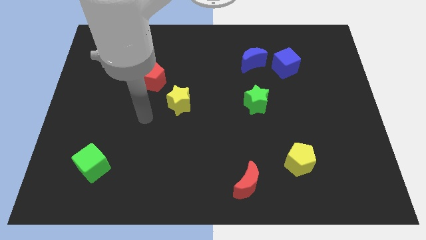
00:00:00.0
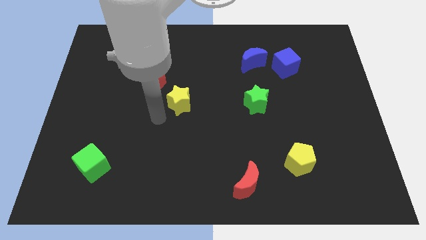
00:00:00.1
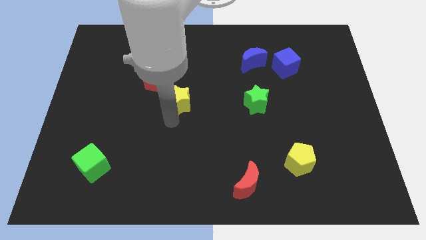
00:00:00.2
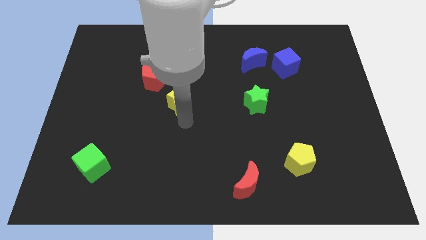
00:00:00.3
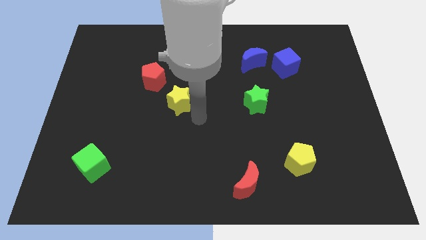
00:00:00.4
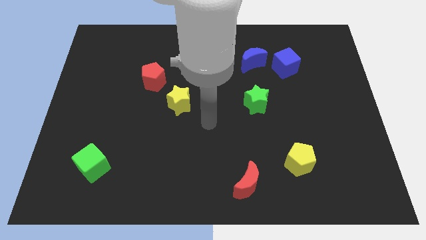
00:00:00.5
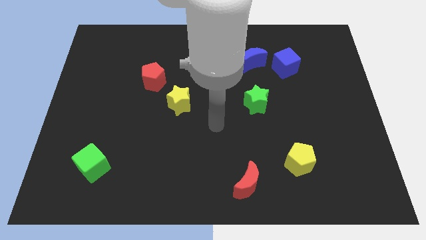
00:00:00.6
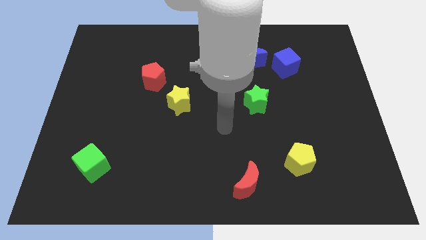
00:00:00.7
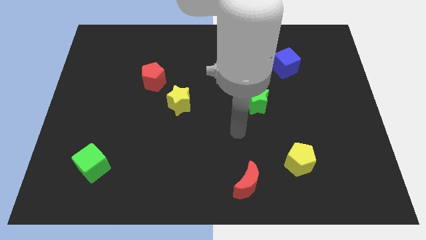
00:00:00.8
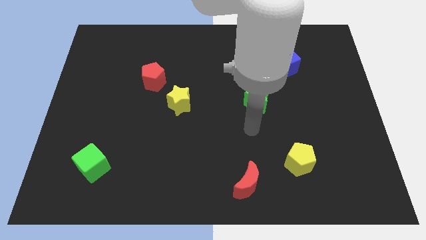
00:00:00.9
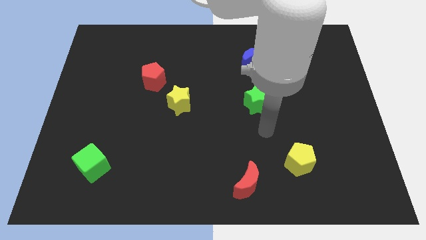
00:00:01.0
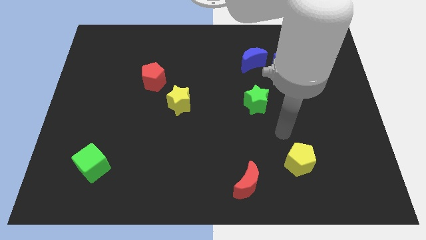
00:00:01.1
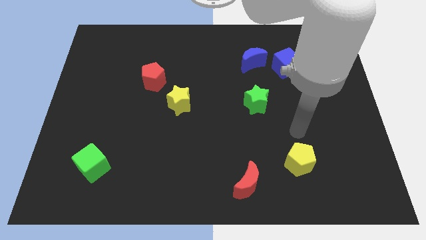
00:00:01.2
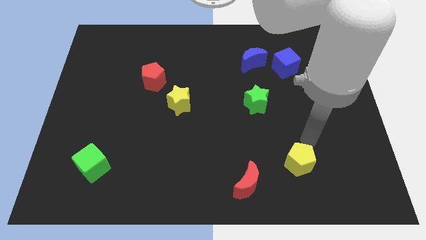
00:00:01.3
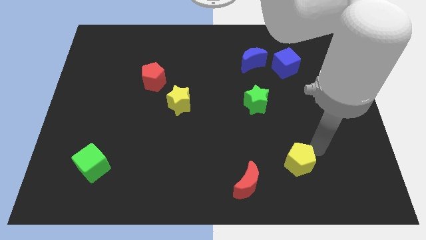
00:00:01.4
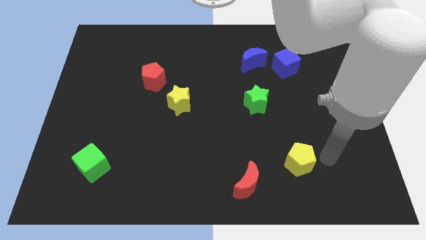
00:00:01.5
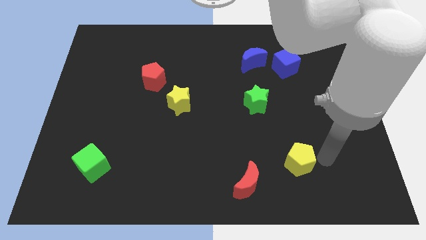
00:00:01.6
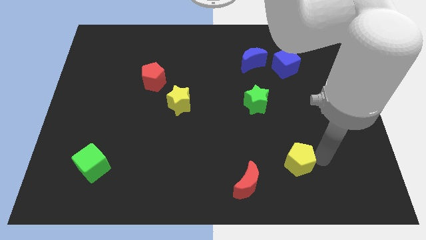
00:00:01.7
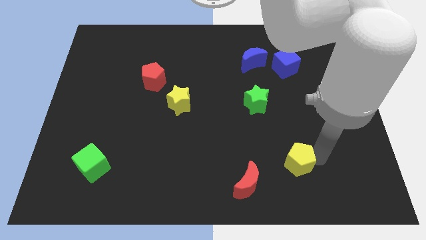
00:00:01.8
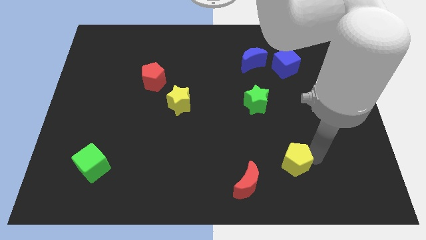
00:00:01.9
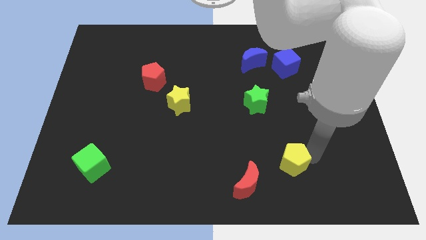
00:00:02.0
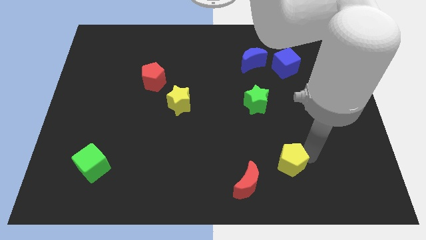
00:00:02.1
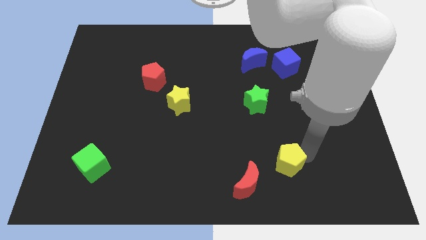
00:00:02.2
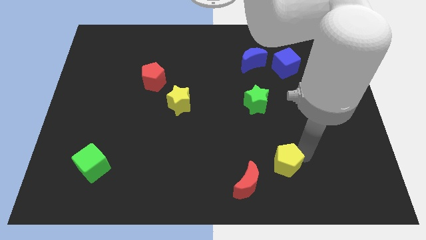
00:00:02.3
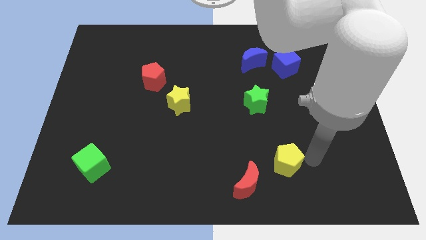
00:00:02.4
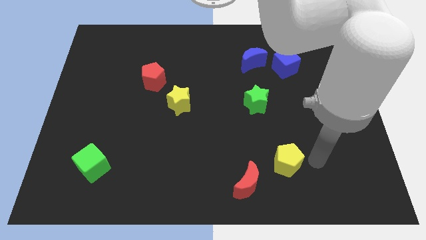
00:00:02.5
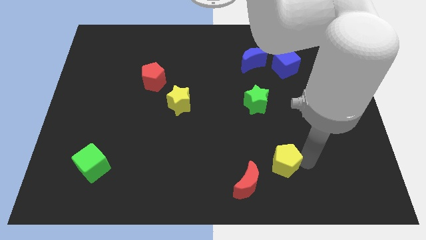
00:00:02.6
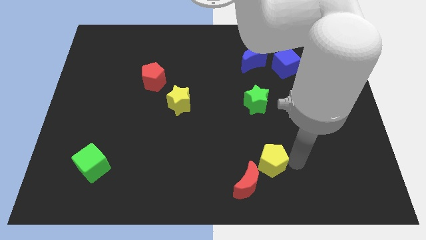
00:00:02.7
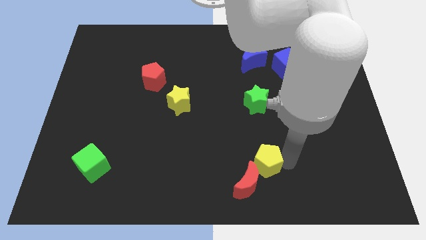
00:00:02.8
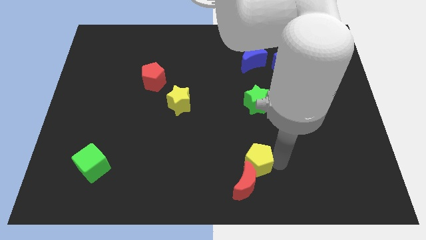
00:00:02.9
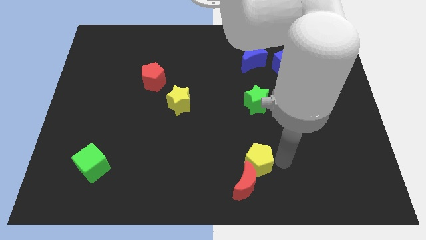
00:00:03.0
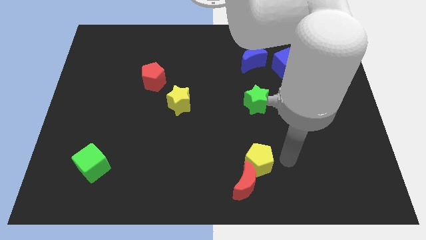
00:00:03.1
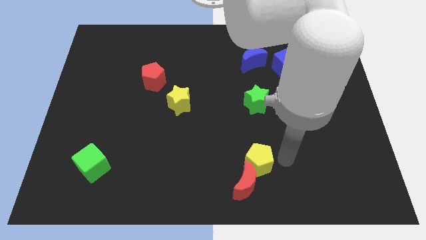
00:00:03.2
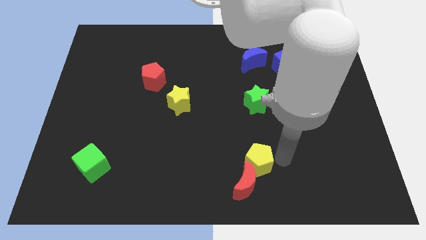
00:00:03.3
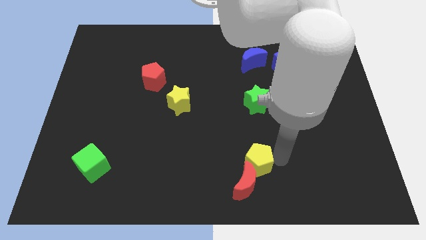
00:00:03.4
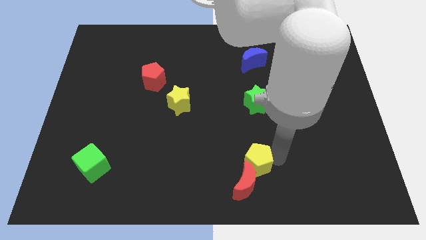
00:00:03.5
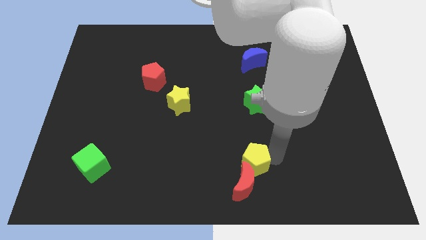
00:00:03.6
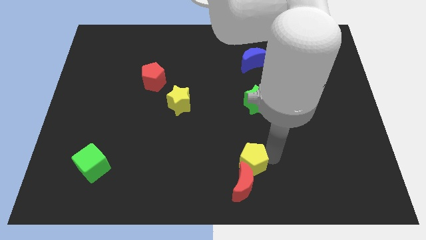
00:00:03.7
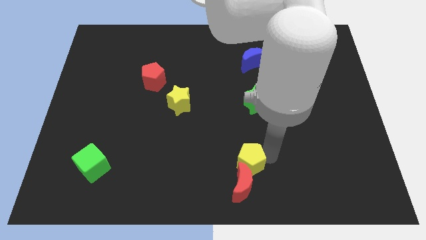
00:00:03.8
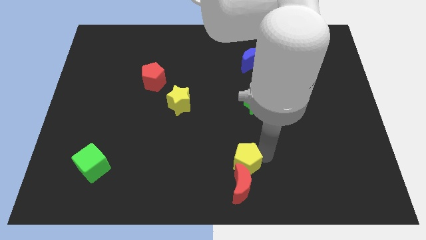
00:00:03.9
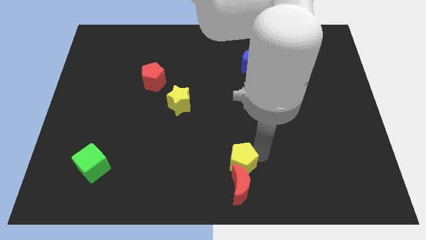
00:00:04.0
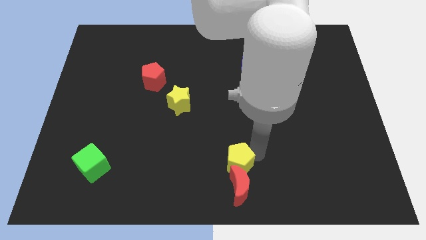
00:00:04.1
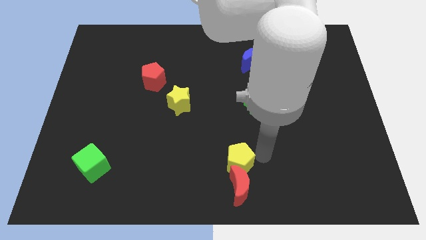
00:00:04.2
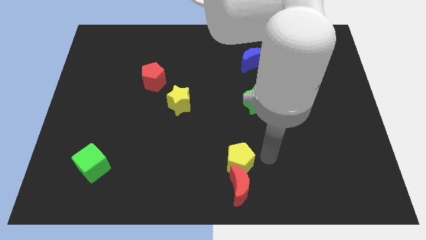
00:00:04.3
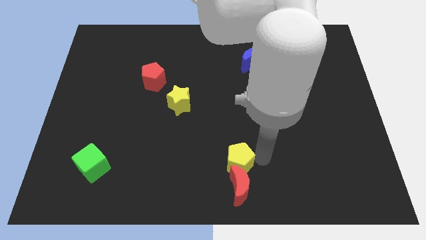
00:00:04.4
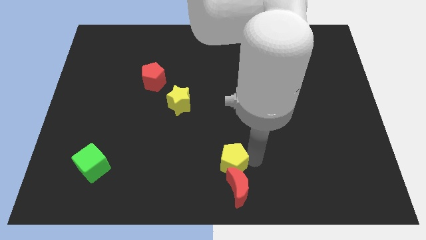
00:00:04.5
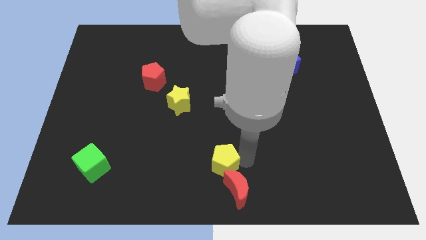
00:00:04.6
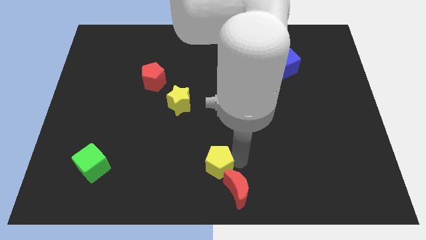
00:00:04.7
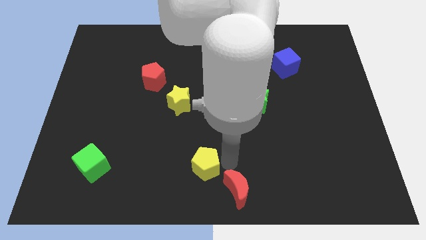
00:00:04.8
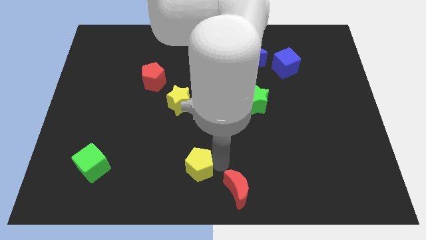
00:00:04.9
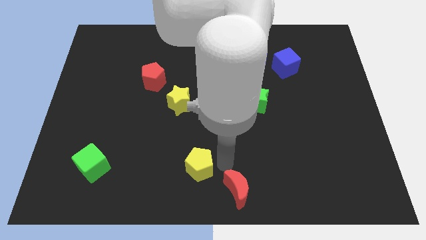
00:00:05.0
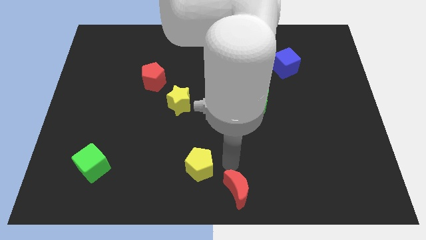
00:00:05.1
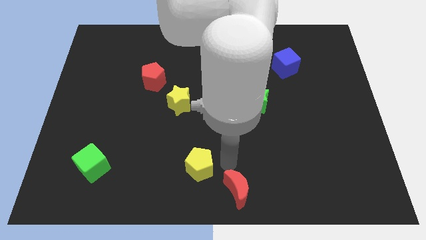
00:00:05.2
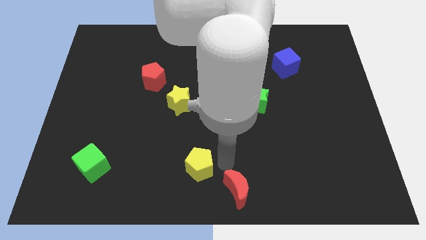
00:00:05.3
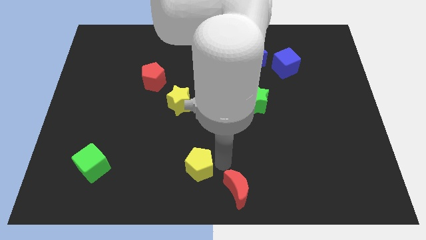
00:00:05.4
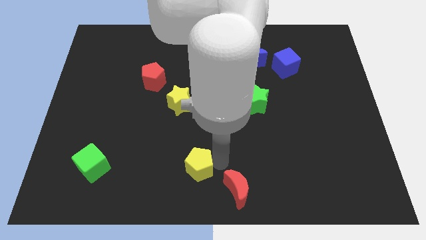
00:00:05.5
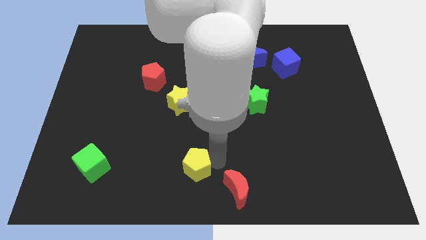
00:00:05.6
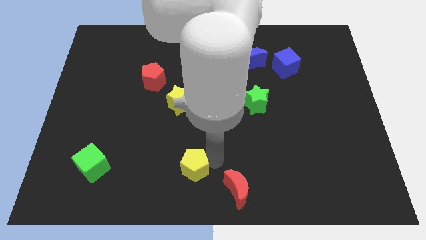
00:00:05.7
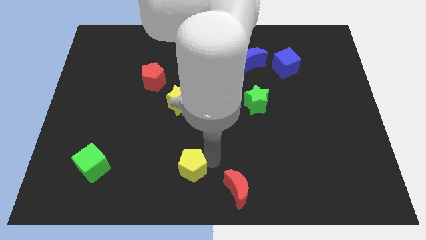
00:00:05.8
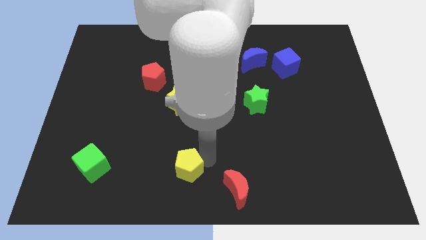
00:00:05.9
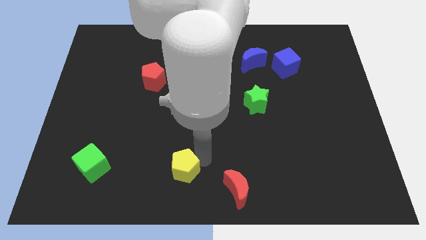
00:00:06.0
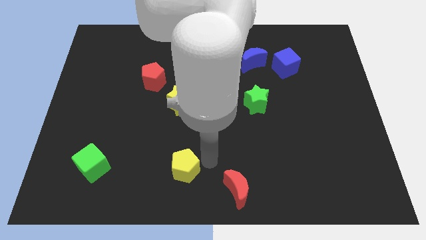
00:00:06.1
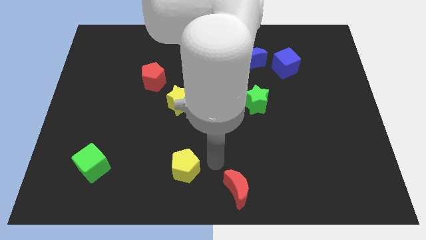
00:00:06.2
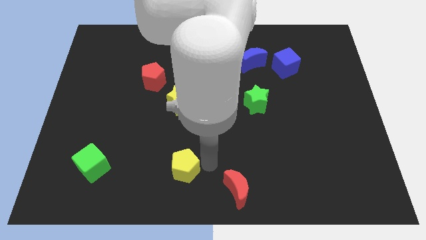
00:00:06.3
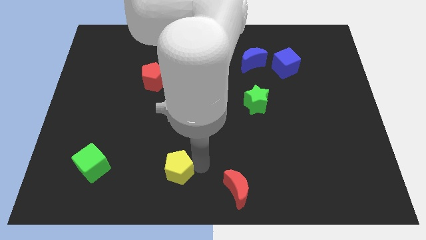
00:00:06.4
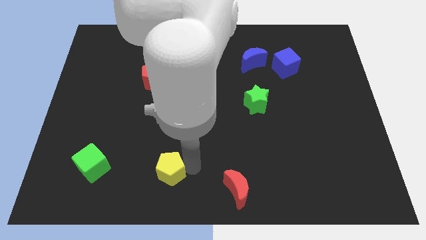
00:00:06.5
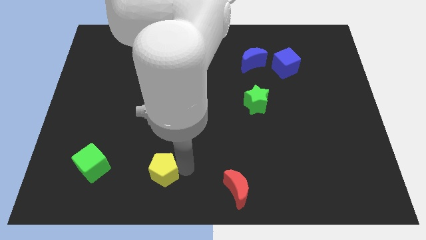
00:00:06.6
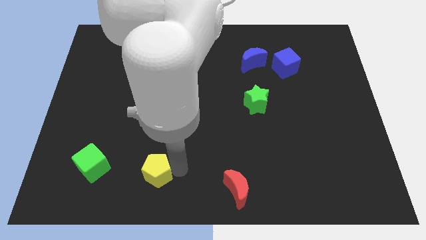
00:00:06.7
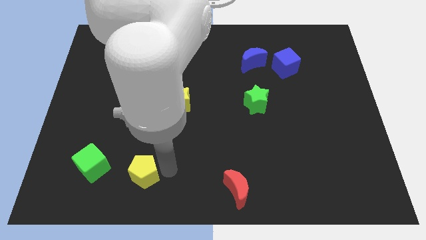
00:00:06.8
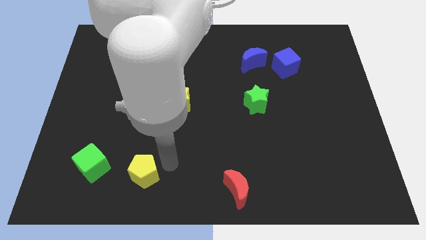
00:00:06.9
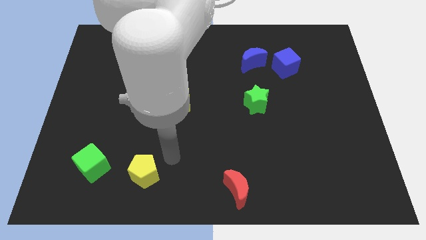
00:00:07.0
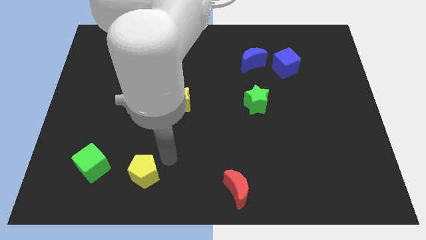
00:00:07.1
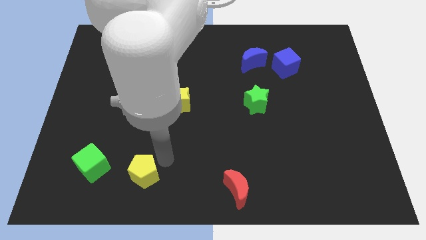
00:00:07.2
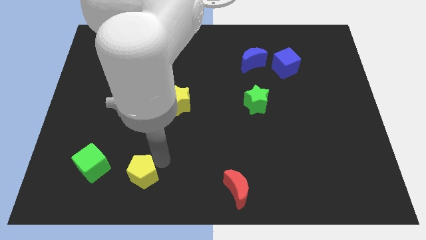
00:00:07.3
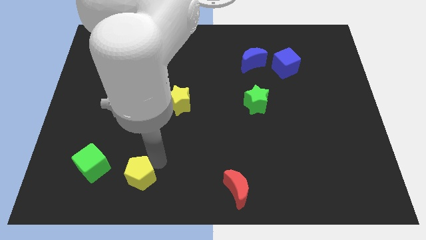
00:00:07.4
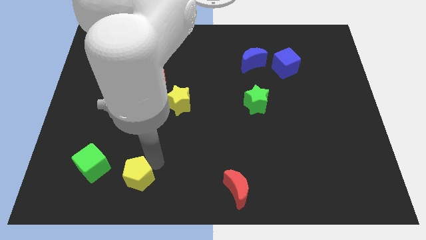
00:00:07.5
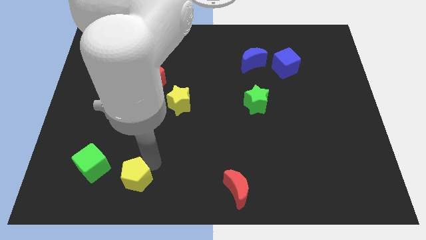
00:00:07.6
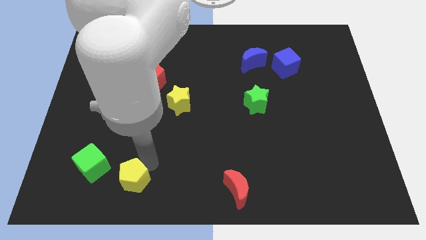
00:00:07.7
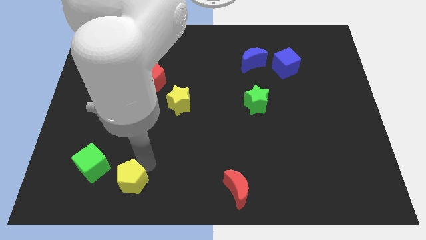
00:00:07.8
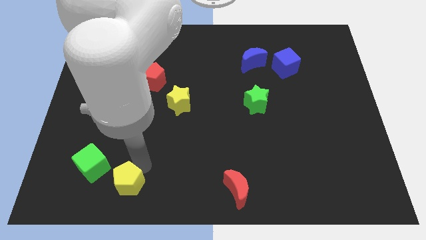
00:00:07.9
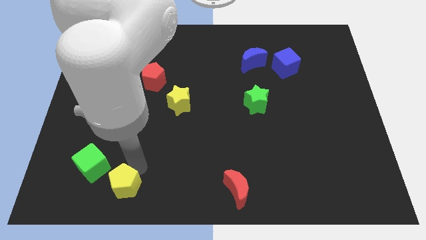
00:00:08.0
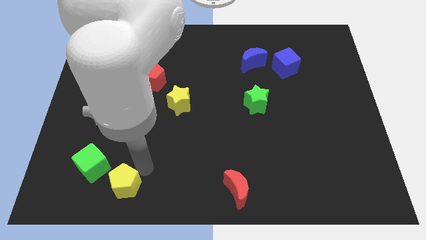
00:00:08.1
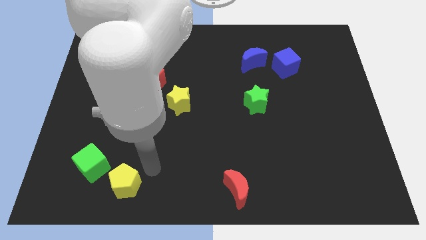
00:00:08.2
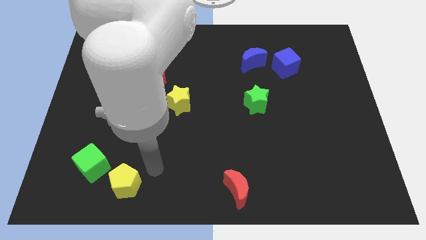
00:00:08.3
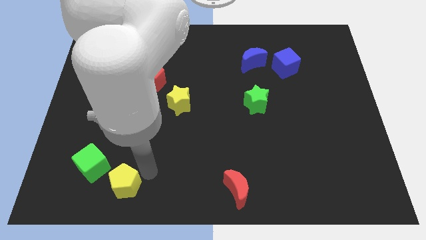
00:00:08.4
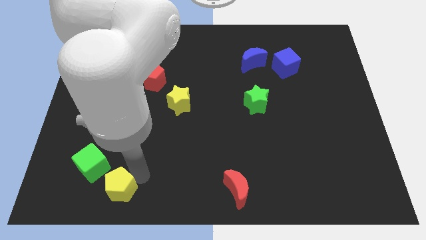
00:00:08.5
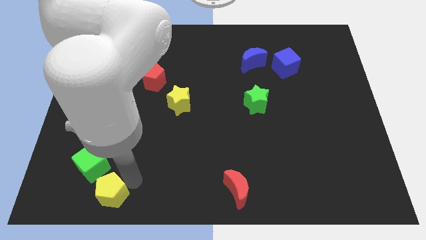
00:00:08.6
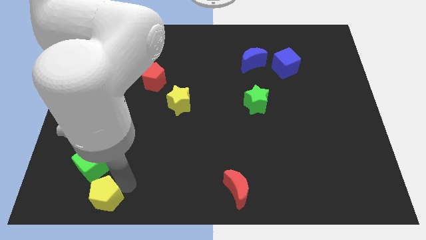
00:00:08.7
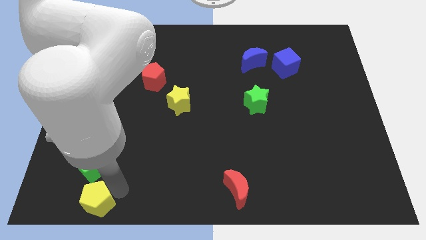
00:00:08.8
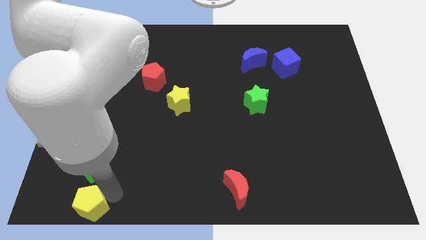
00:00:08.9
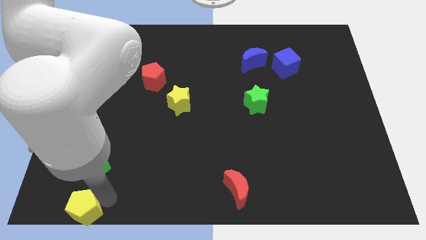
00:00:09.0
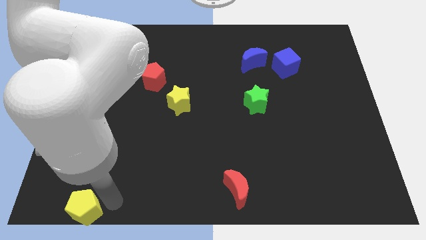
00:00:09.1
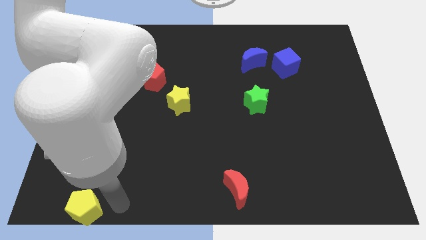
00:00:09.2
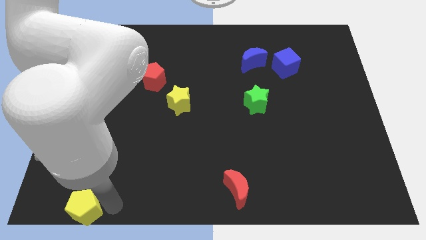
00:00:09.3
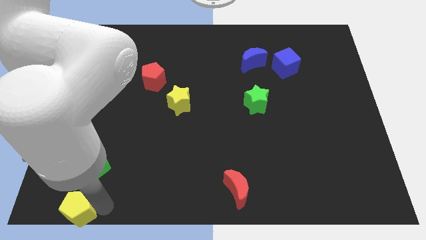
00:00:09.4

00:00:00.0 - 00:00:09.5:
put the yellow pentagon to the bottom left corner
